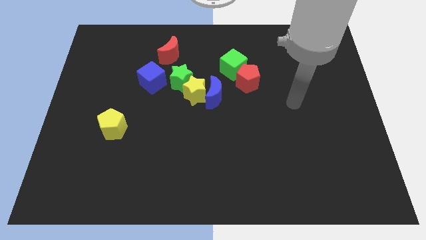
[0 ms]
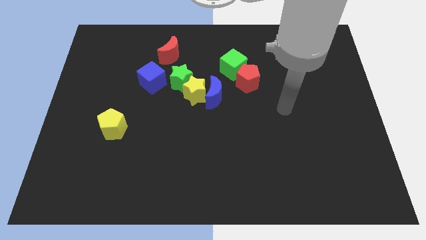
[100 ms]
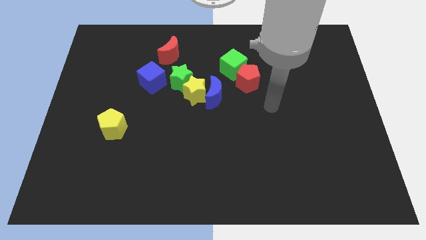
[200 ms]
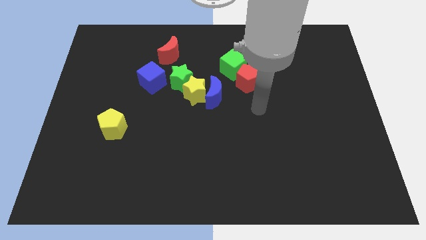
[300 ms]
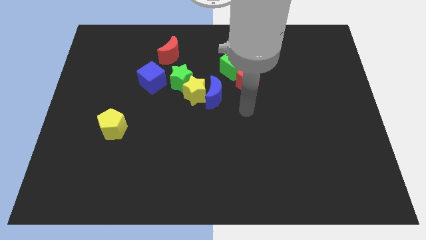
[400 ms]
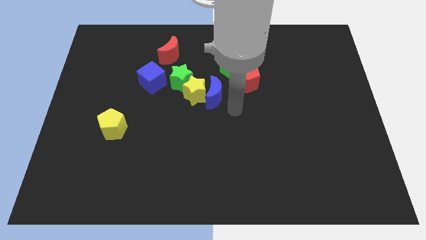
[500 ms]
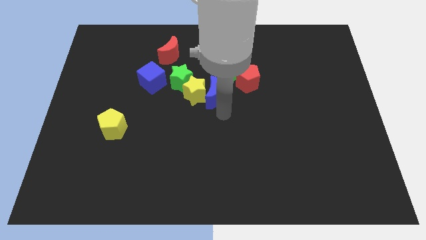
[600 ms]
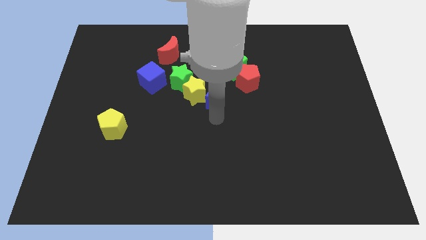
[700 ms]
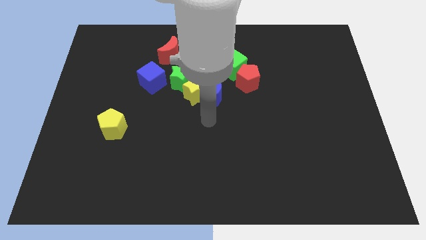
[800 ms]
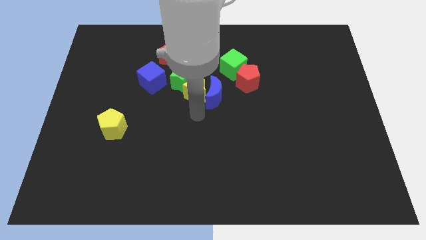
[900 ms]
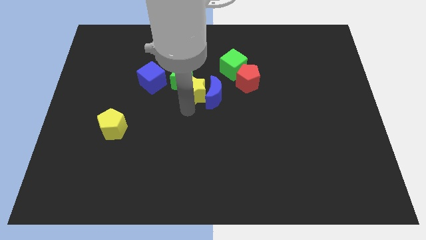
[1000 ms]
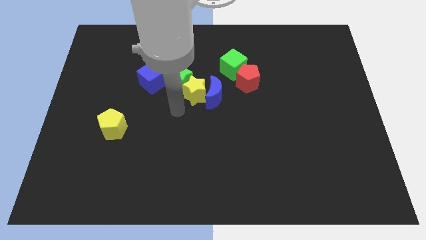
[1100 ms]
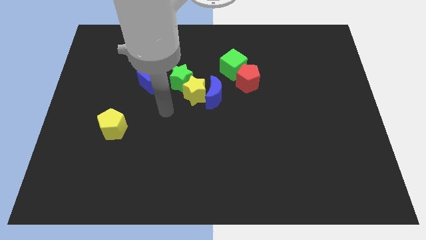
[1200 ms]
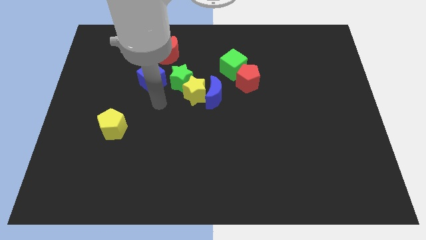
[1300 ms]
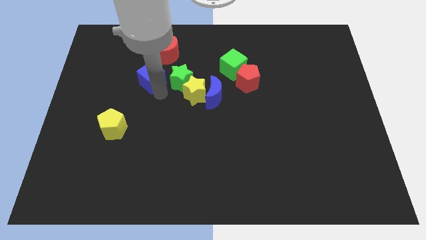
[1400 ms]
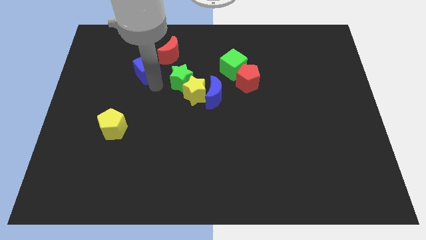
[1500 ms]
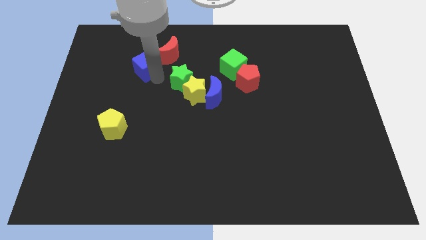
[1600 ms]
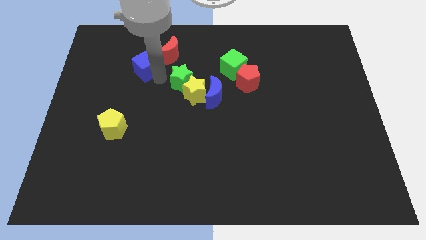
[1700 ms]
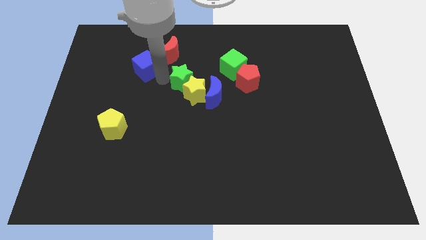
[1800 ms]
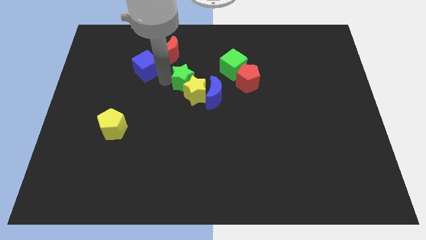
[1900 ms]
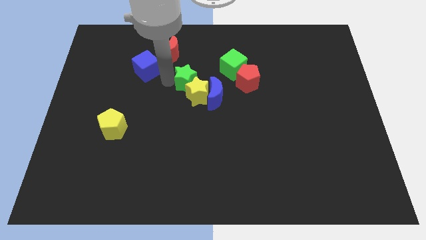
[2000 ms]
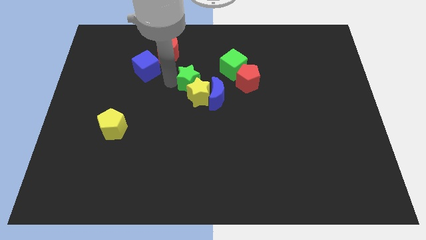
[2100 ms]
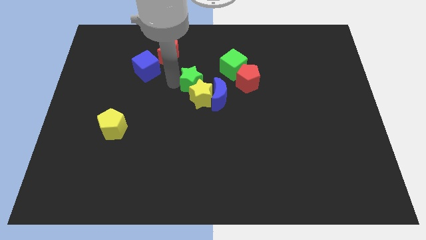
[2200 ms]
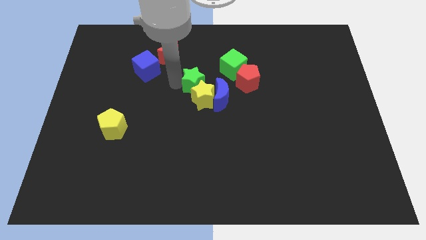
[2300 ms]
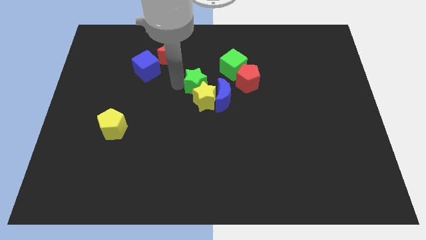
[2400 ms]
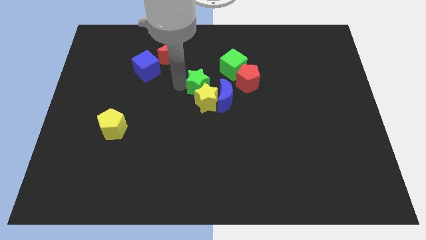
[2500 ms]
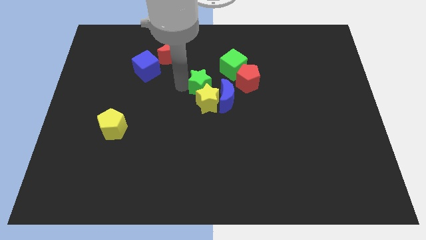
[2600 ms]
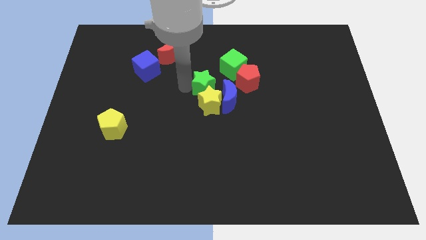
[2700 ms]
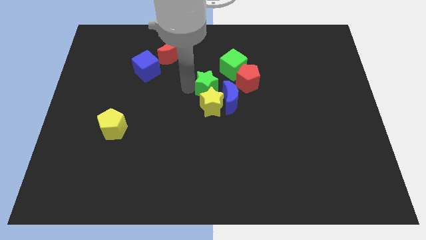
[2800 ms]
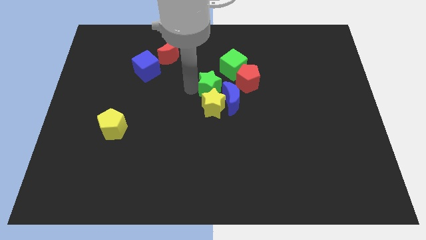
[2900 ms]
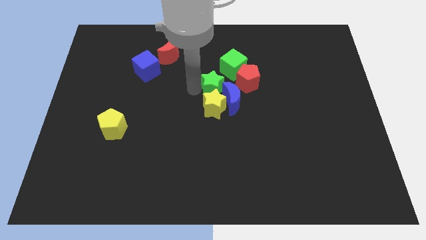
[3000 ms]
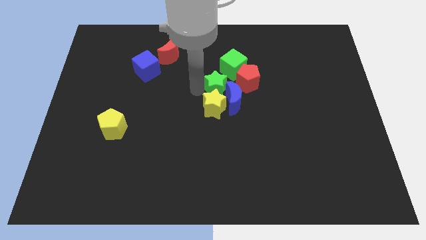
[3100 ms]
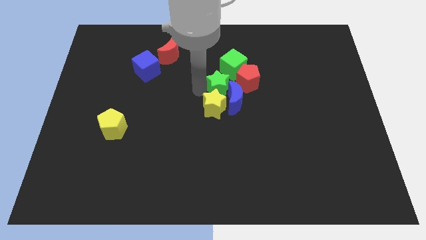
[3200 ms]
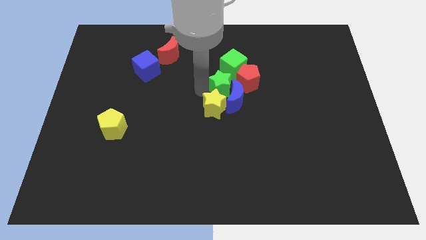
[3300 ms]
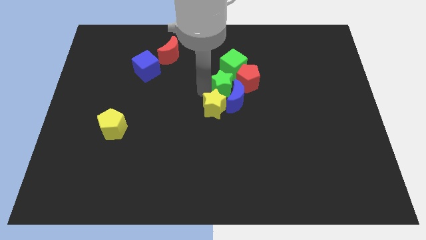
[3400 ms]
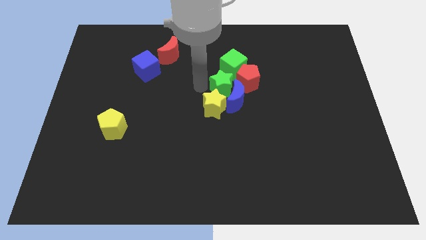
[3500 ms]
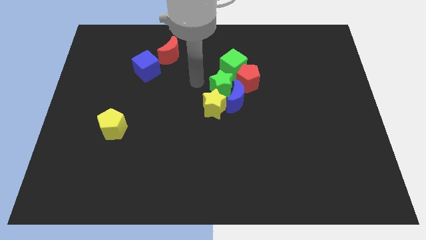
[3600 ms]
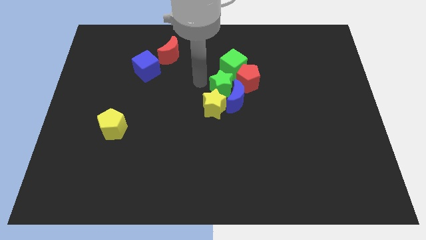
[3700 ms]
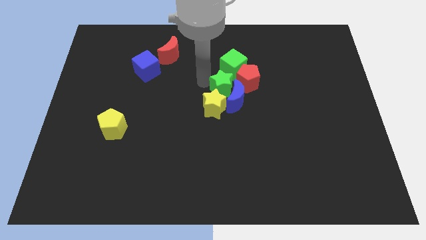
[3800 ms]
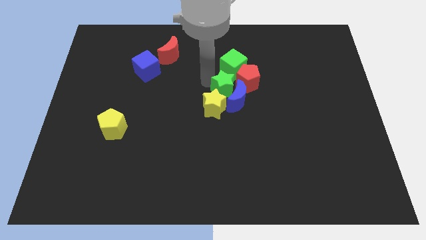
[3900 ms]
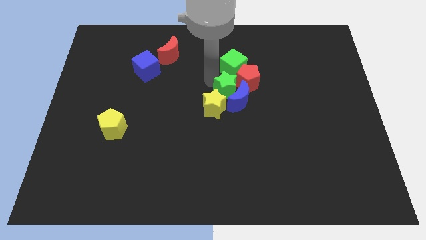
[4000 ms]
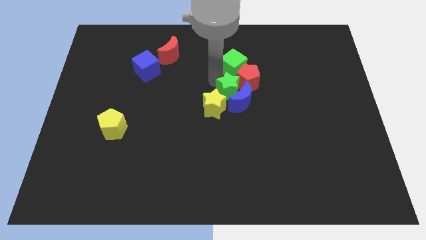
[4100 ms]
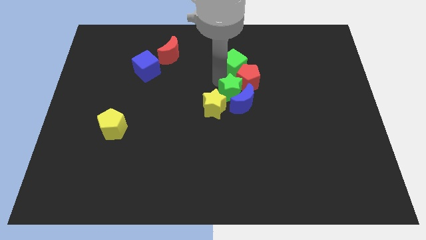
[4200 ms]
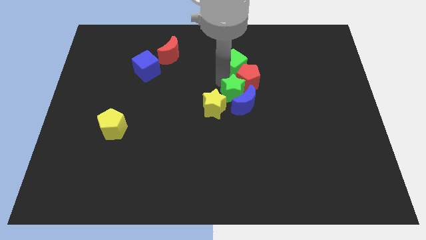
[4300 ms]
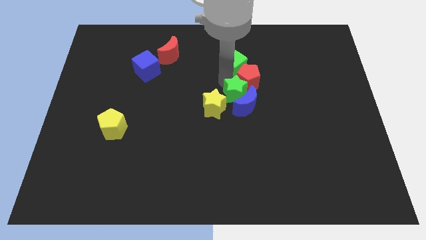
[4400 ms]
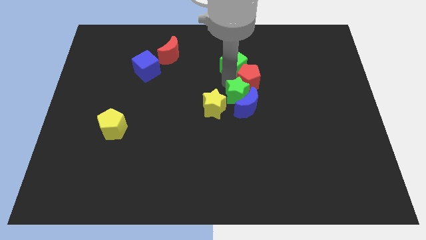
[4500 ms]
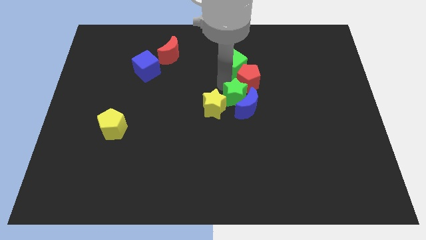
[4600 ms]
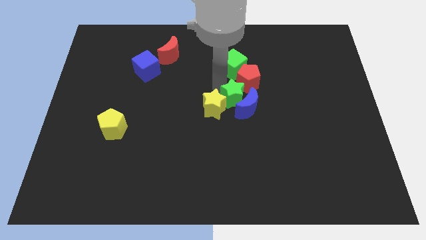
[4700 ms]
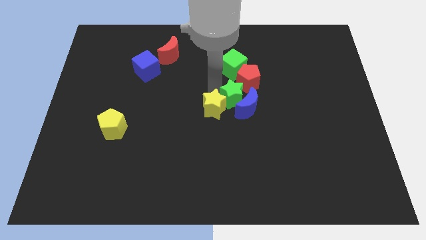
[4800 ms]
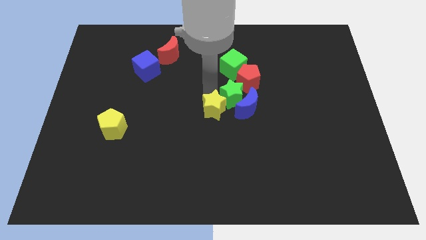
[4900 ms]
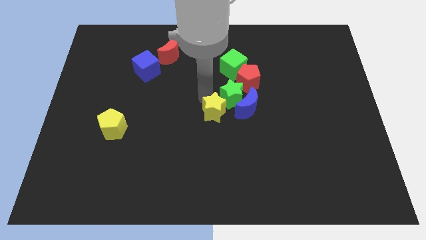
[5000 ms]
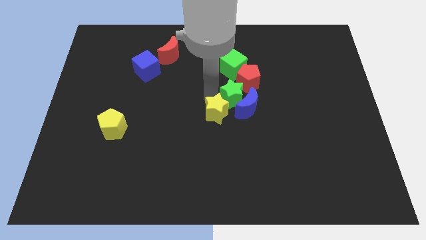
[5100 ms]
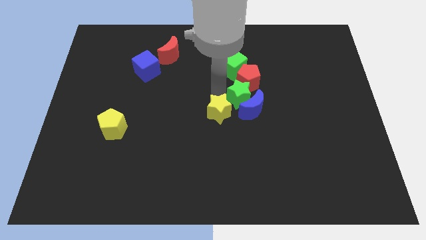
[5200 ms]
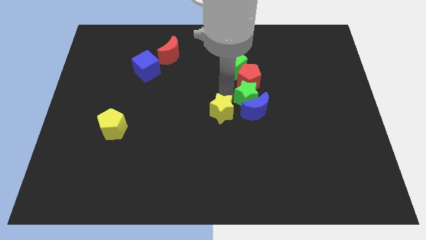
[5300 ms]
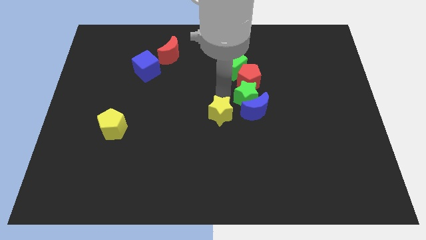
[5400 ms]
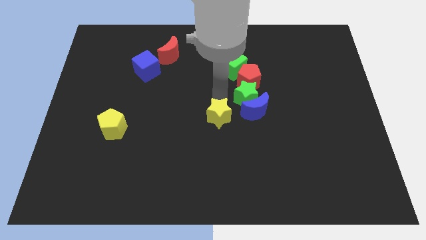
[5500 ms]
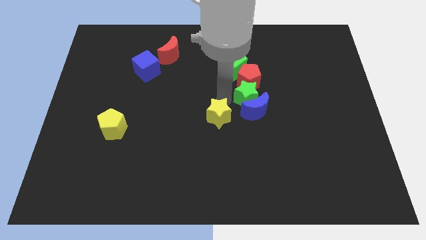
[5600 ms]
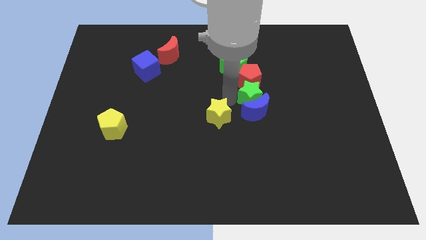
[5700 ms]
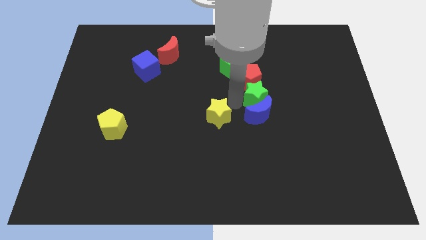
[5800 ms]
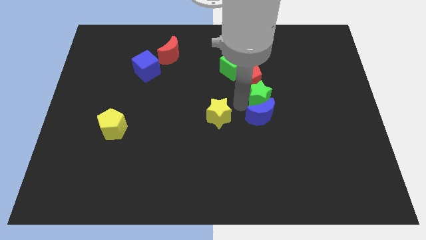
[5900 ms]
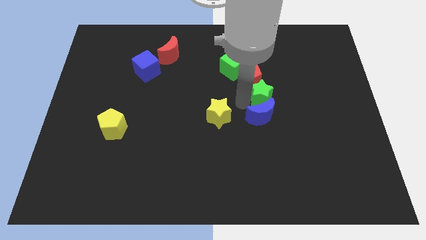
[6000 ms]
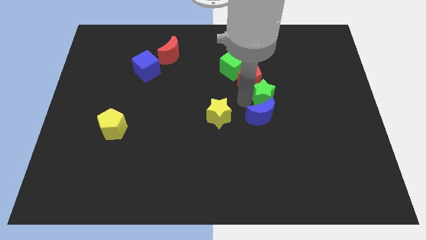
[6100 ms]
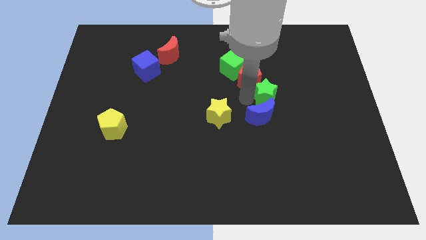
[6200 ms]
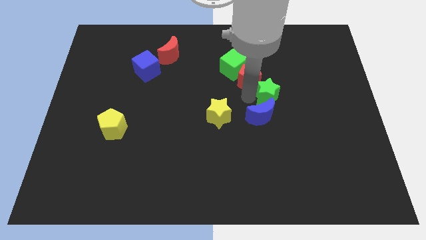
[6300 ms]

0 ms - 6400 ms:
push the green star right of the red pentagon

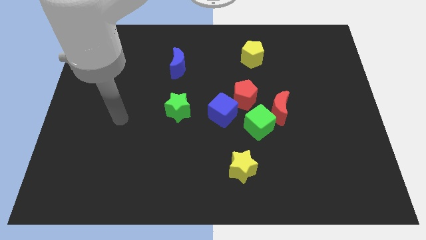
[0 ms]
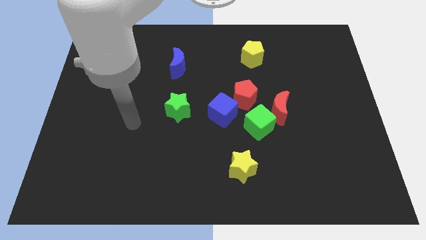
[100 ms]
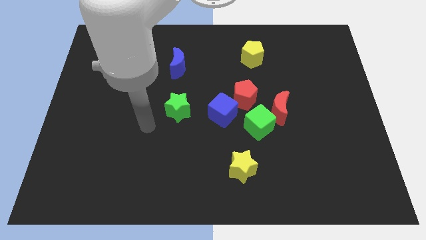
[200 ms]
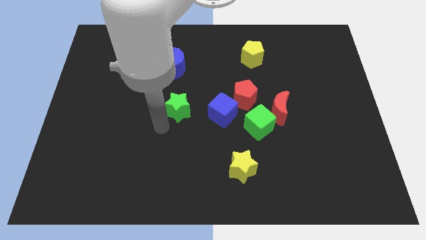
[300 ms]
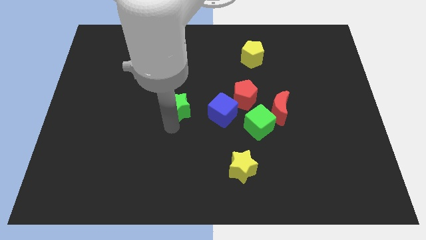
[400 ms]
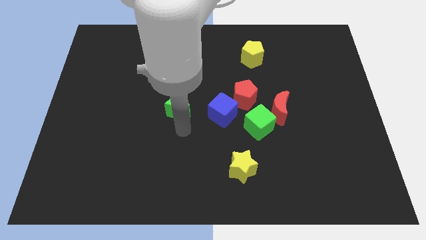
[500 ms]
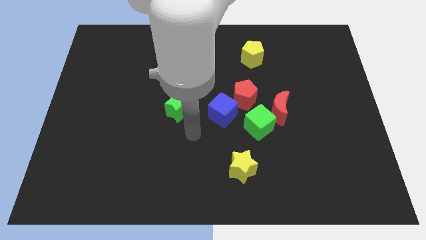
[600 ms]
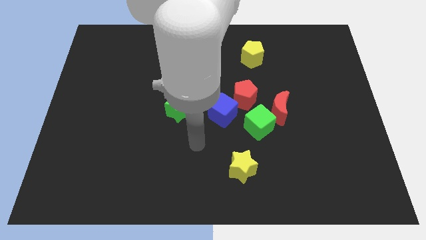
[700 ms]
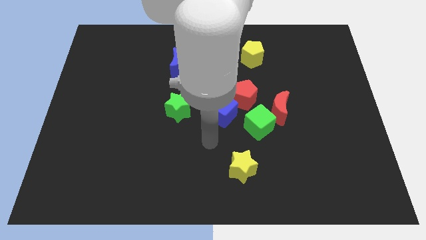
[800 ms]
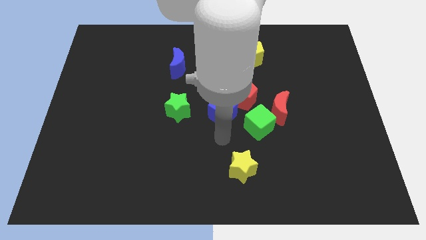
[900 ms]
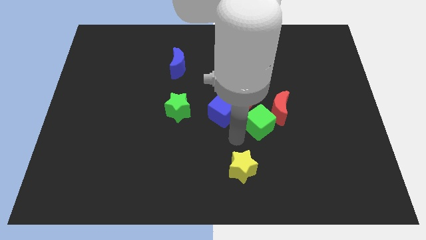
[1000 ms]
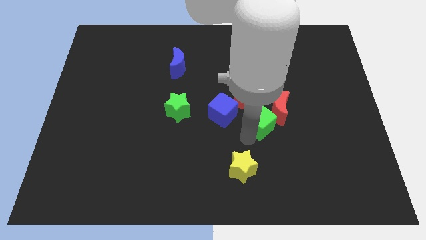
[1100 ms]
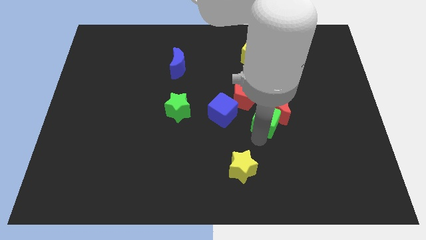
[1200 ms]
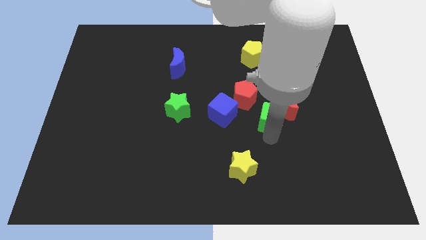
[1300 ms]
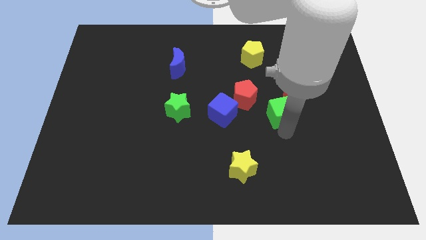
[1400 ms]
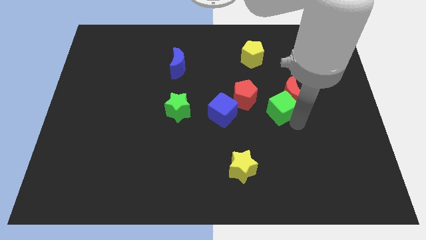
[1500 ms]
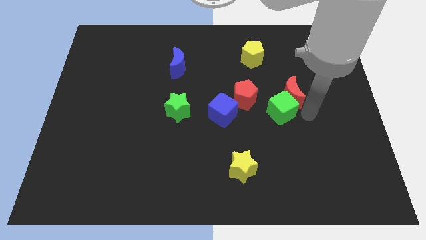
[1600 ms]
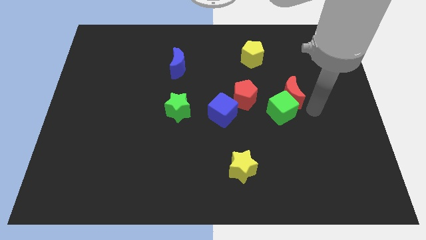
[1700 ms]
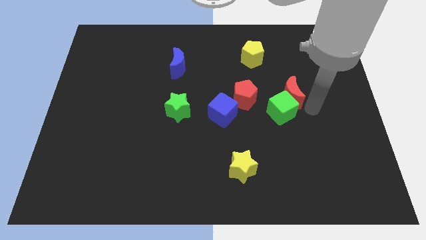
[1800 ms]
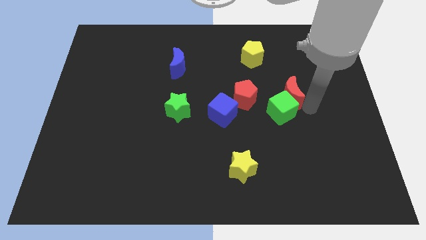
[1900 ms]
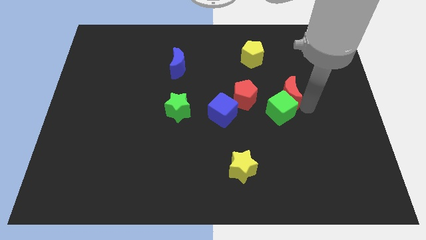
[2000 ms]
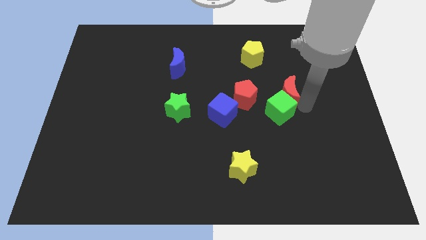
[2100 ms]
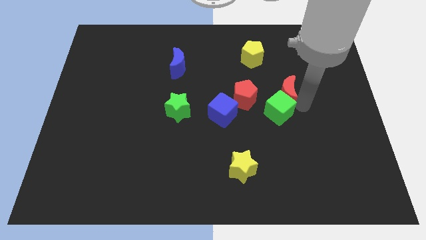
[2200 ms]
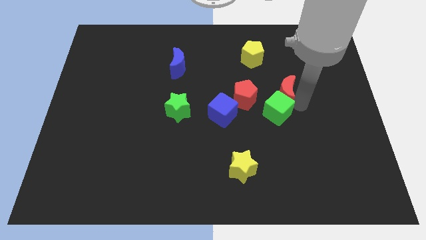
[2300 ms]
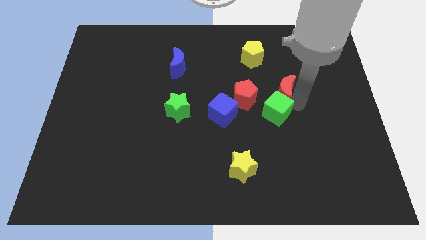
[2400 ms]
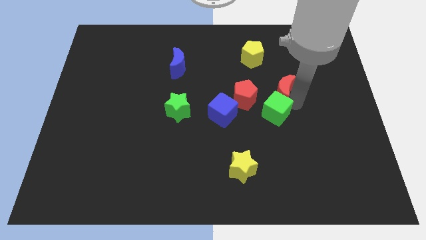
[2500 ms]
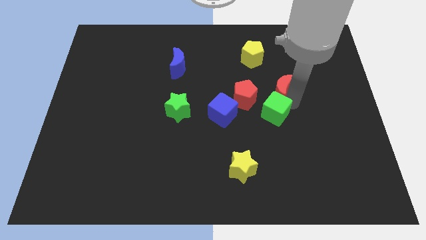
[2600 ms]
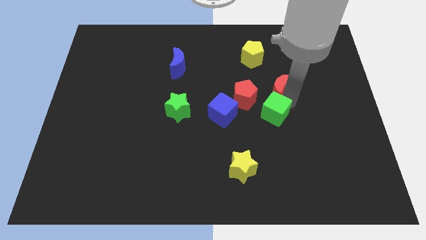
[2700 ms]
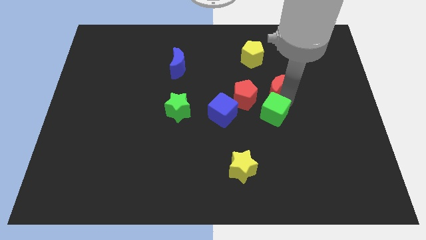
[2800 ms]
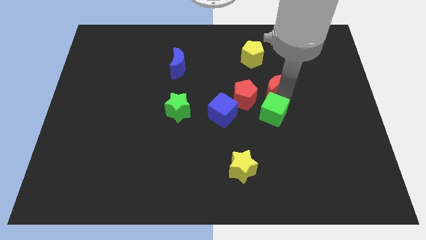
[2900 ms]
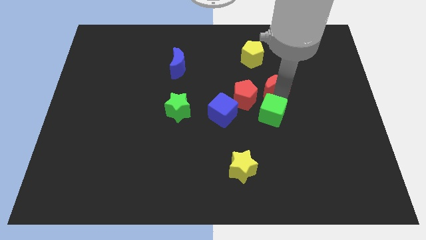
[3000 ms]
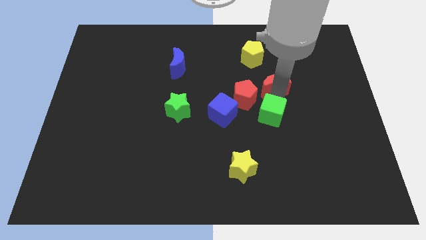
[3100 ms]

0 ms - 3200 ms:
push the red moon to the bottom right of the yellow pentagon
